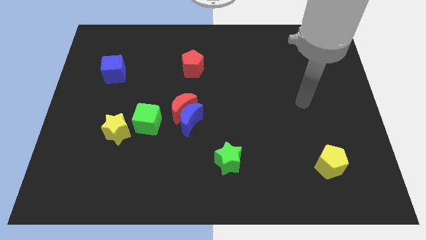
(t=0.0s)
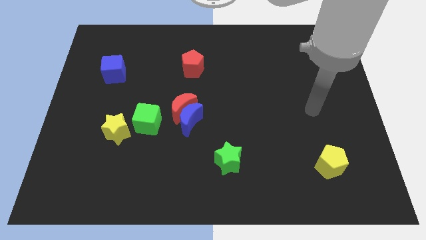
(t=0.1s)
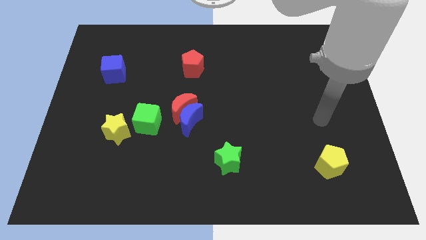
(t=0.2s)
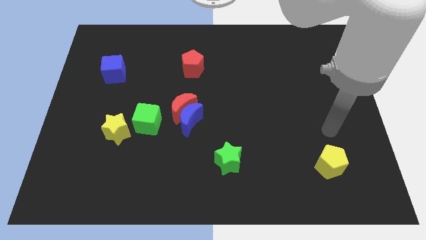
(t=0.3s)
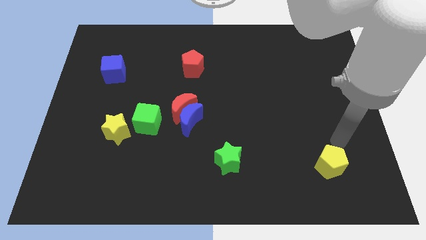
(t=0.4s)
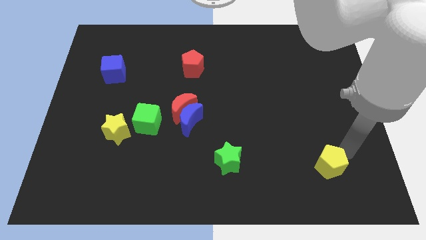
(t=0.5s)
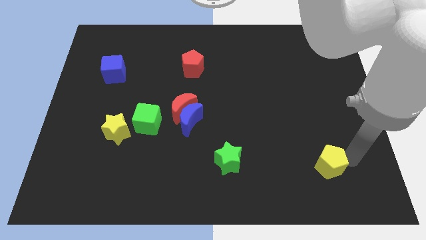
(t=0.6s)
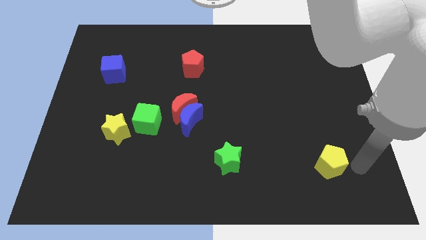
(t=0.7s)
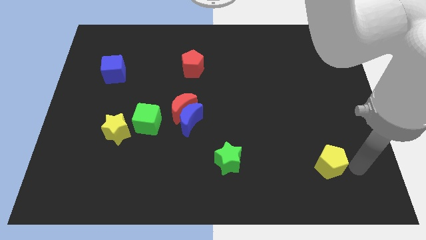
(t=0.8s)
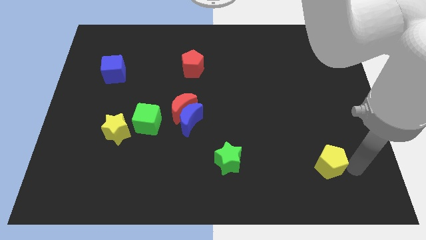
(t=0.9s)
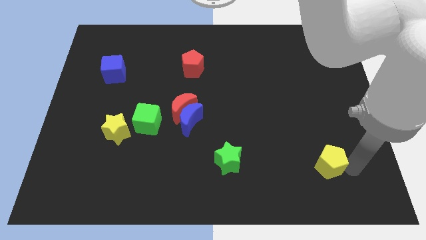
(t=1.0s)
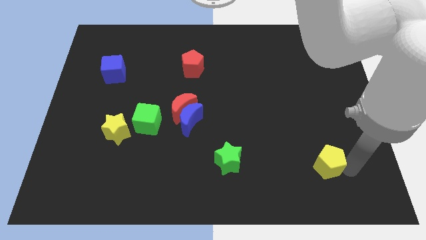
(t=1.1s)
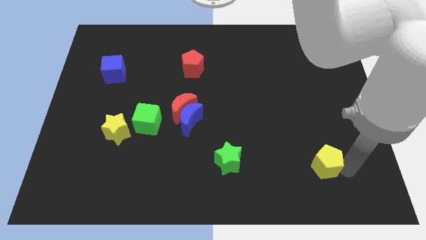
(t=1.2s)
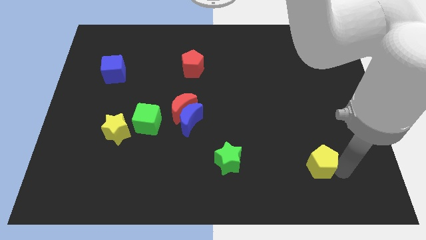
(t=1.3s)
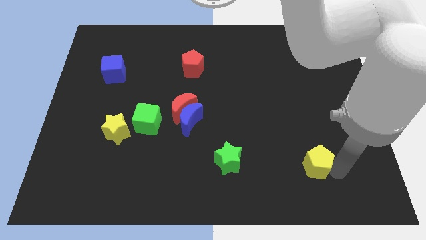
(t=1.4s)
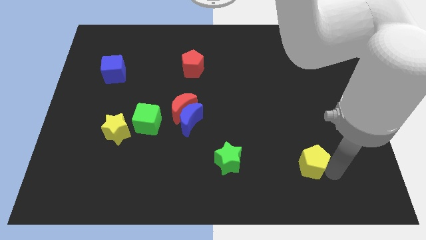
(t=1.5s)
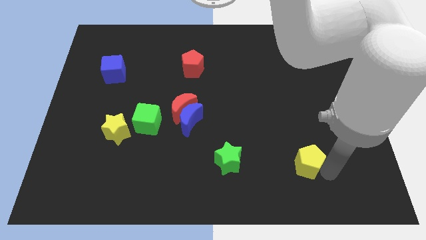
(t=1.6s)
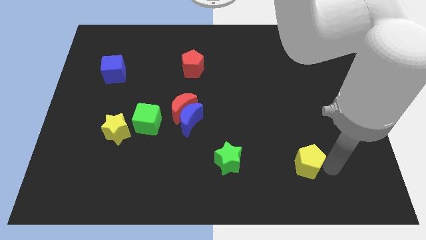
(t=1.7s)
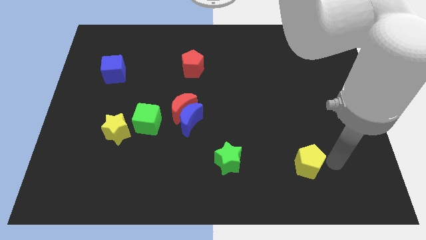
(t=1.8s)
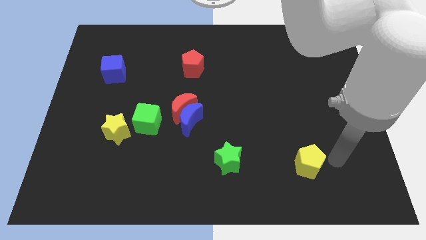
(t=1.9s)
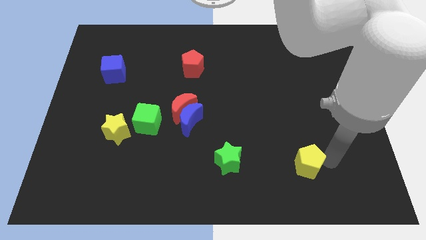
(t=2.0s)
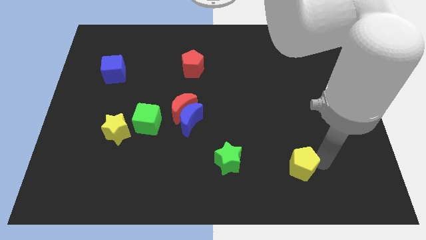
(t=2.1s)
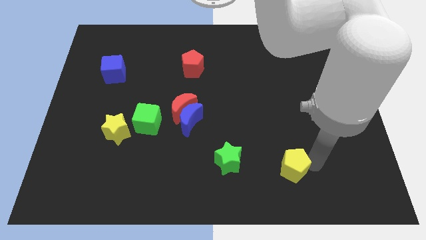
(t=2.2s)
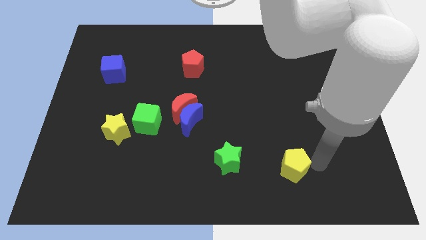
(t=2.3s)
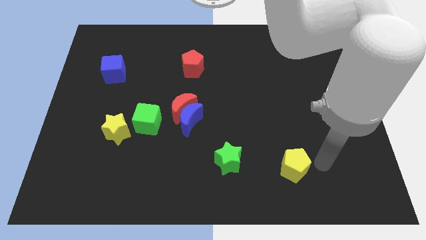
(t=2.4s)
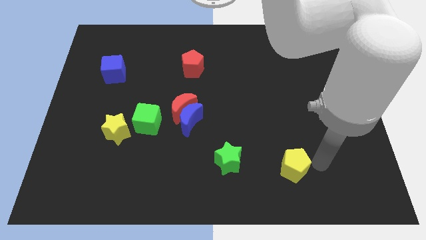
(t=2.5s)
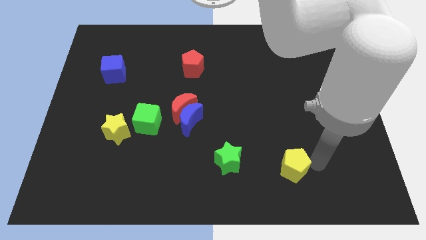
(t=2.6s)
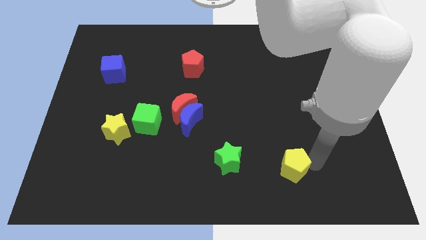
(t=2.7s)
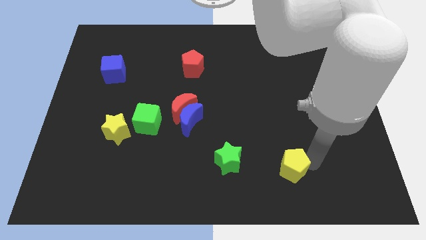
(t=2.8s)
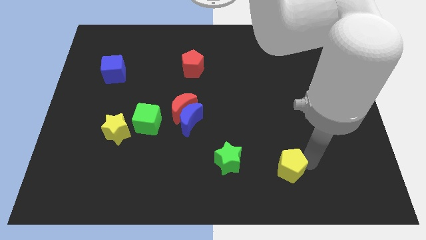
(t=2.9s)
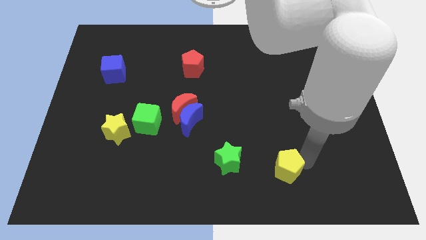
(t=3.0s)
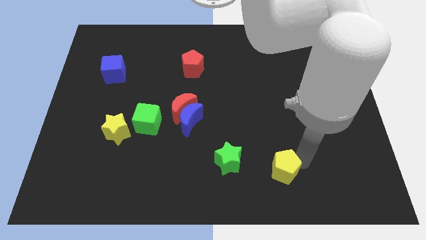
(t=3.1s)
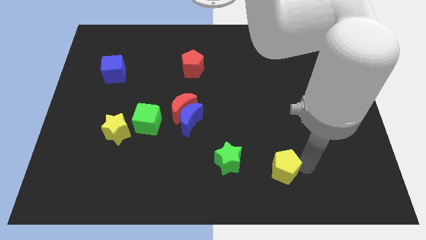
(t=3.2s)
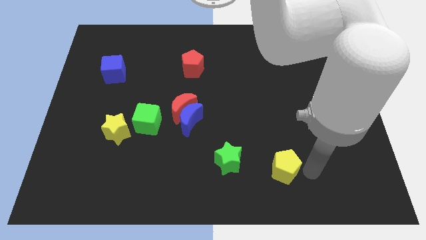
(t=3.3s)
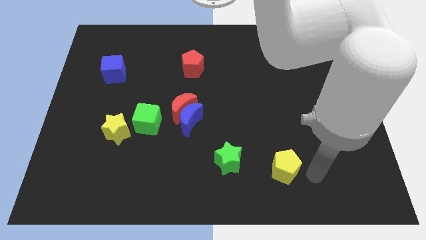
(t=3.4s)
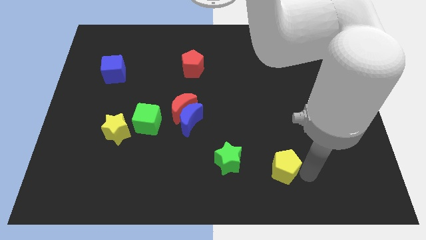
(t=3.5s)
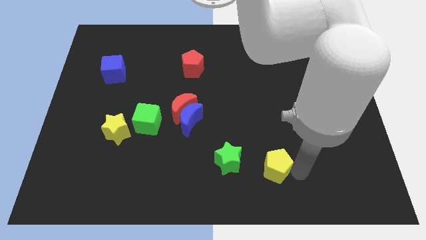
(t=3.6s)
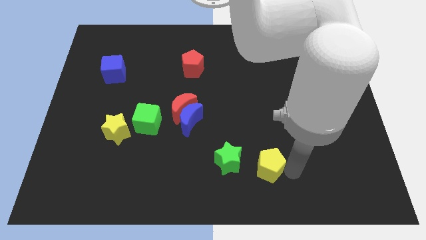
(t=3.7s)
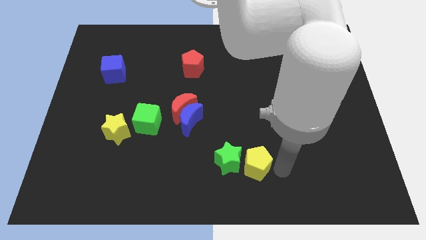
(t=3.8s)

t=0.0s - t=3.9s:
move the yellow pentagon next to the green star

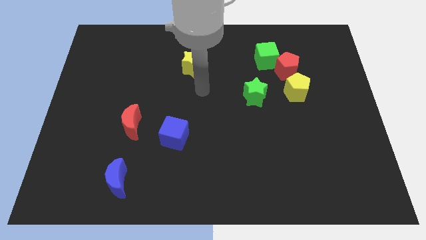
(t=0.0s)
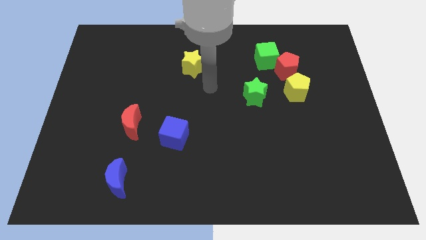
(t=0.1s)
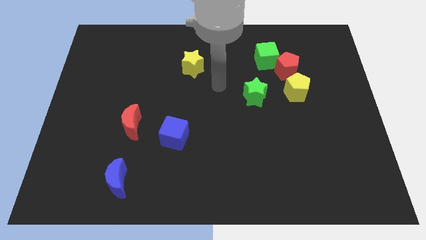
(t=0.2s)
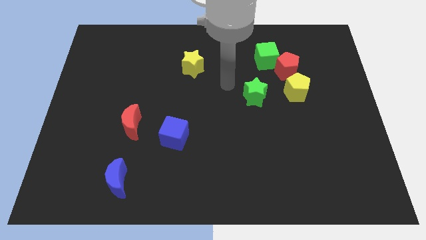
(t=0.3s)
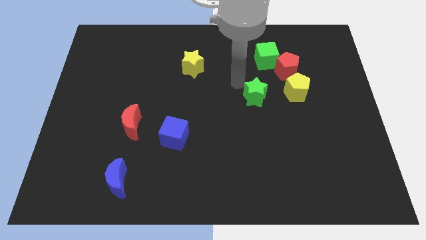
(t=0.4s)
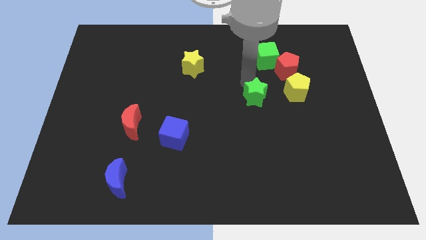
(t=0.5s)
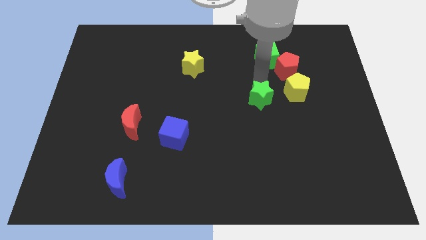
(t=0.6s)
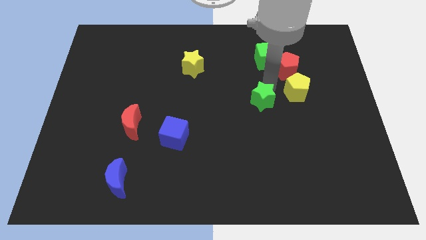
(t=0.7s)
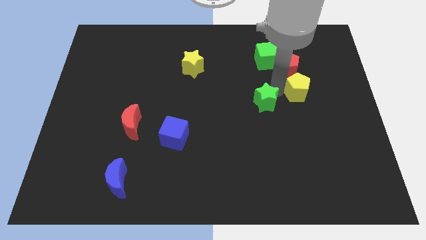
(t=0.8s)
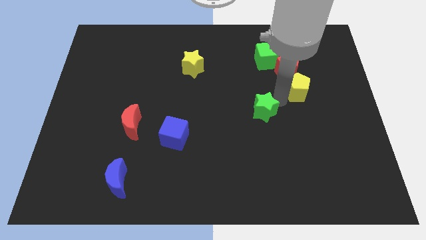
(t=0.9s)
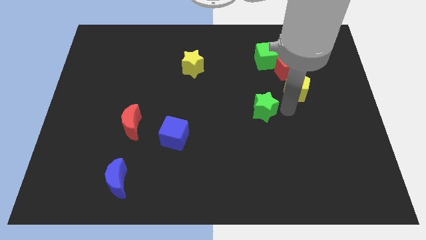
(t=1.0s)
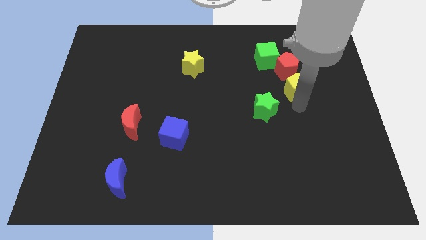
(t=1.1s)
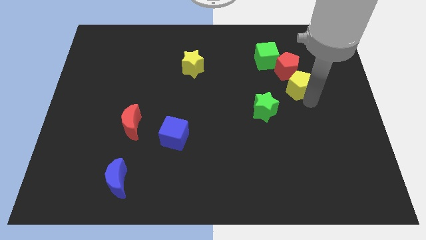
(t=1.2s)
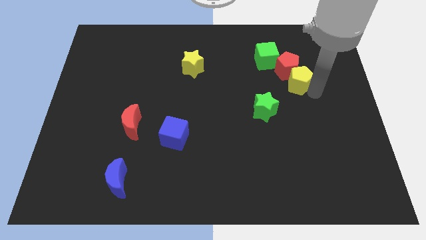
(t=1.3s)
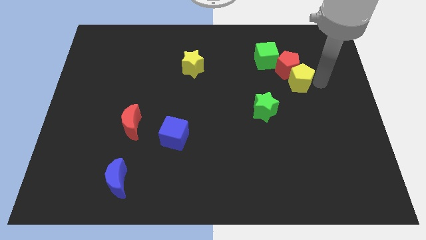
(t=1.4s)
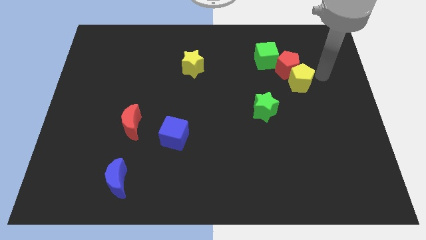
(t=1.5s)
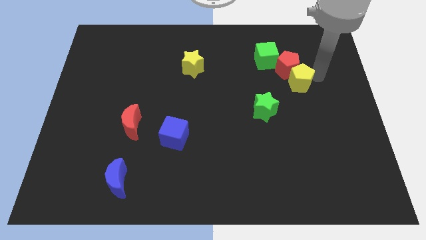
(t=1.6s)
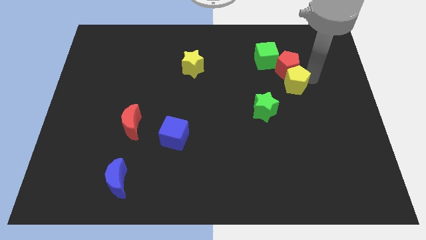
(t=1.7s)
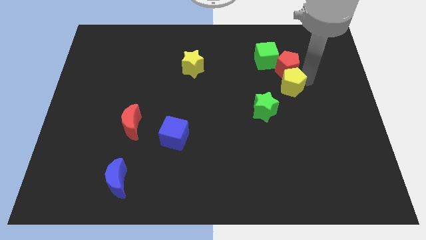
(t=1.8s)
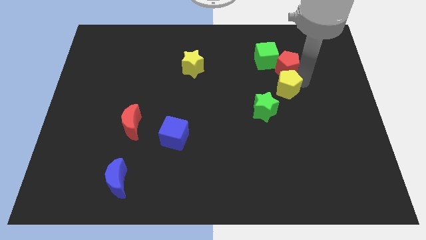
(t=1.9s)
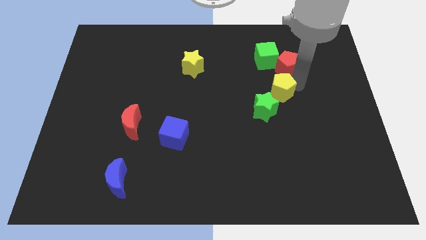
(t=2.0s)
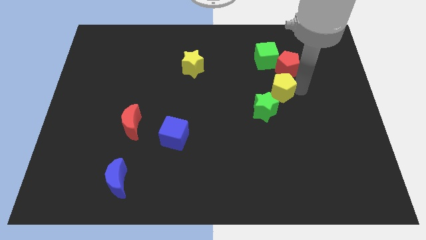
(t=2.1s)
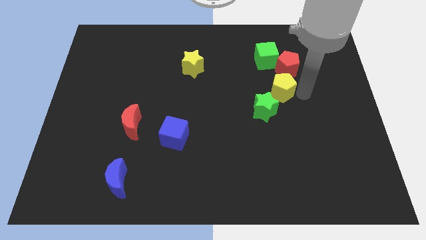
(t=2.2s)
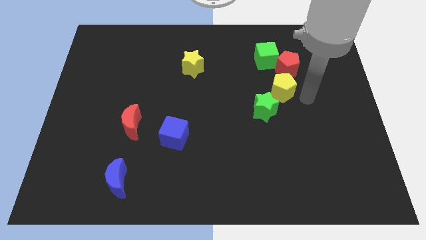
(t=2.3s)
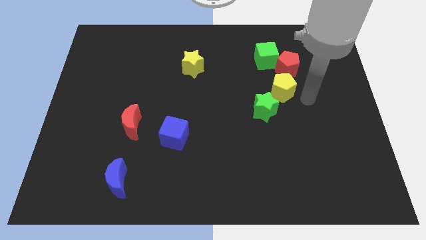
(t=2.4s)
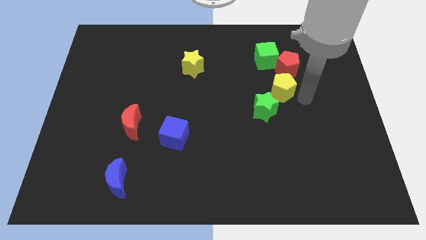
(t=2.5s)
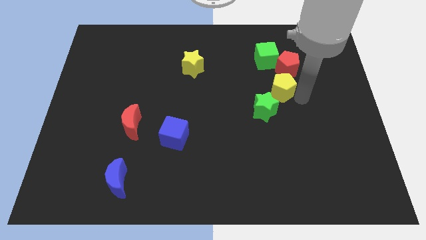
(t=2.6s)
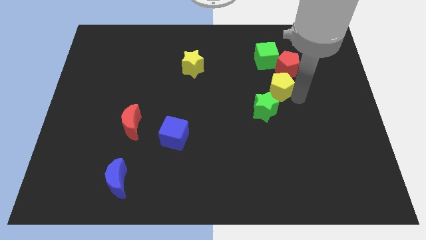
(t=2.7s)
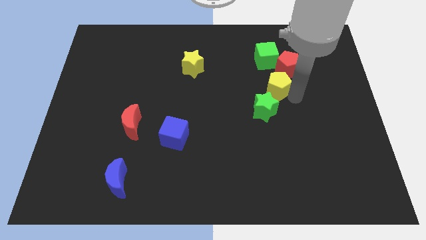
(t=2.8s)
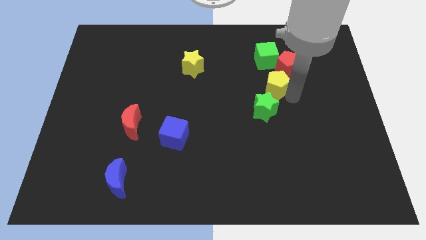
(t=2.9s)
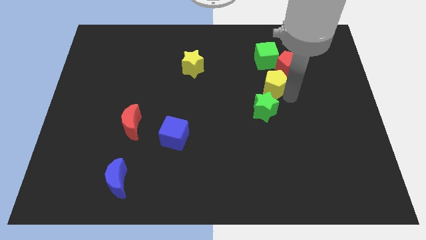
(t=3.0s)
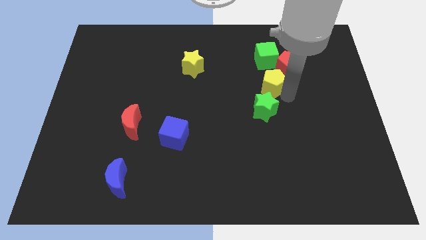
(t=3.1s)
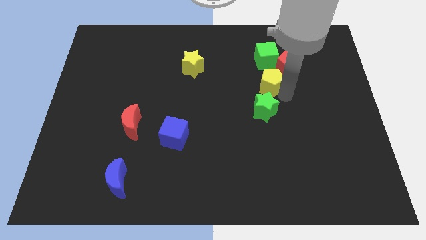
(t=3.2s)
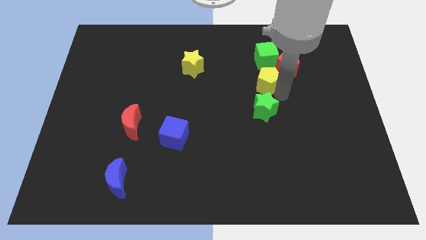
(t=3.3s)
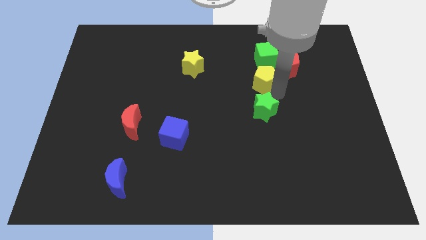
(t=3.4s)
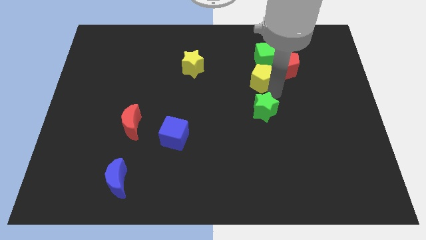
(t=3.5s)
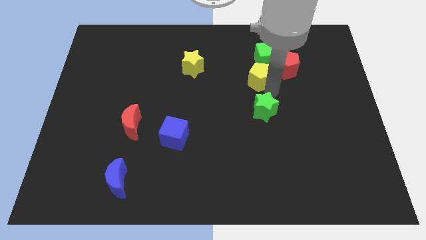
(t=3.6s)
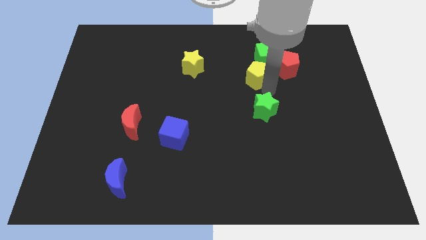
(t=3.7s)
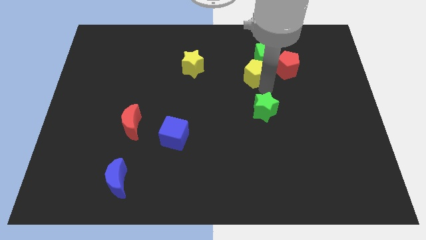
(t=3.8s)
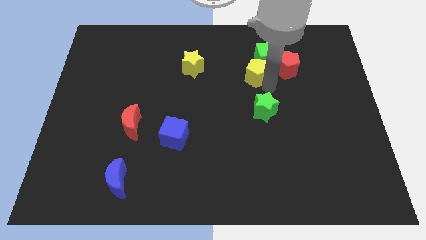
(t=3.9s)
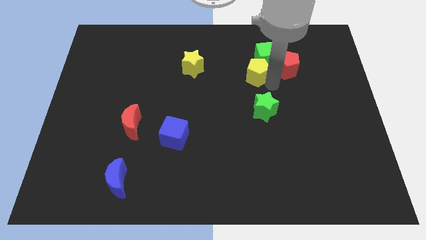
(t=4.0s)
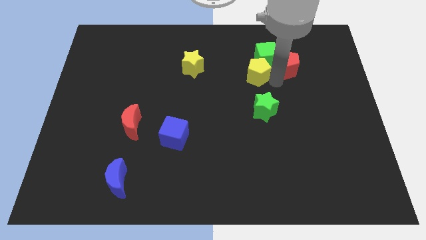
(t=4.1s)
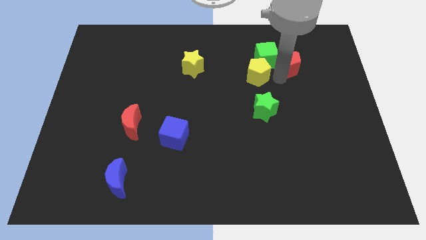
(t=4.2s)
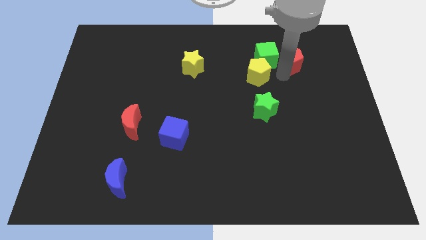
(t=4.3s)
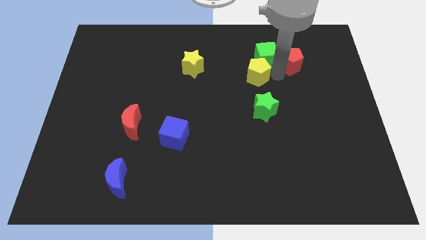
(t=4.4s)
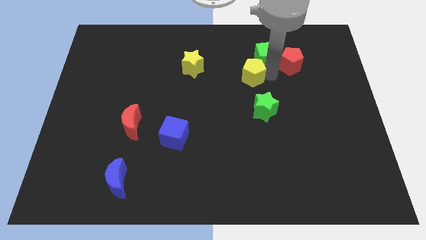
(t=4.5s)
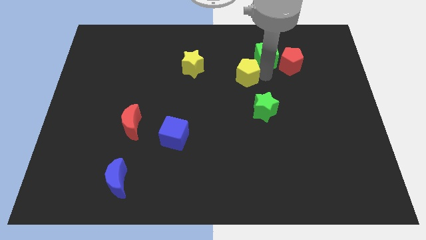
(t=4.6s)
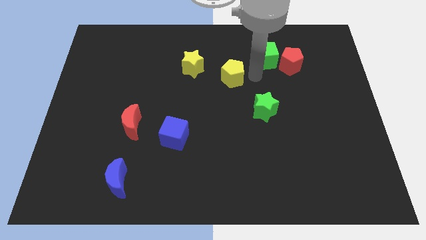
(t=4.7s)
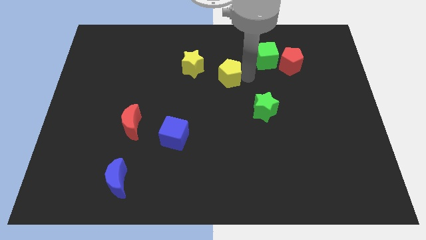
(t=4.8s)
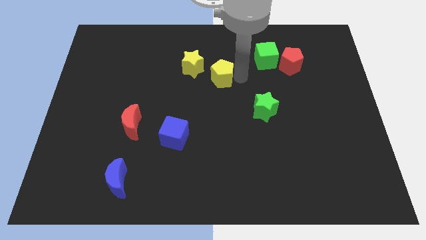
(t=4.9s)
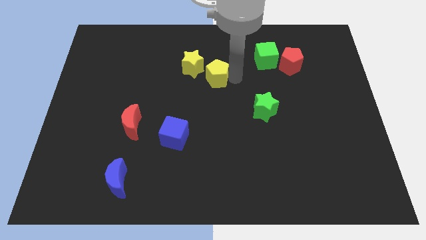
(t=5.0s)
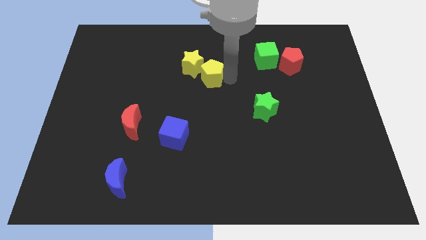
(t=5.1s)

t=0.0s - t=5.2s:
put the yellow pentagon next to the yellow star
